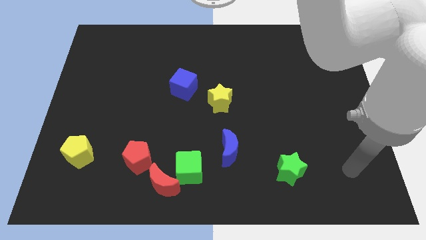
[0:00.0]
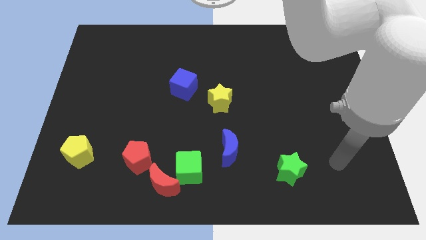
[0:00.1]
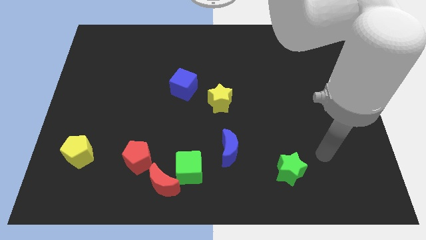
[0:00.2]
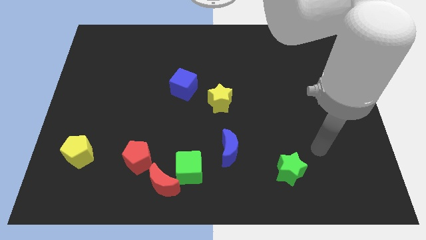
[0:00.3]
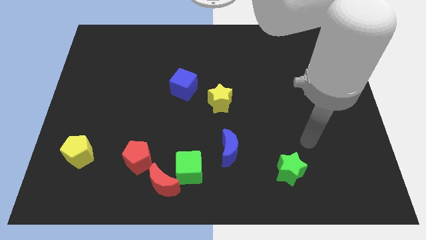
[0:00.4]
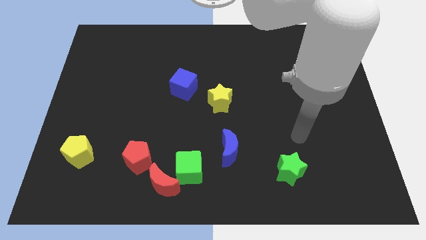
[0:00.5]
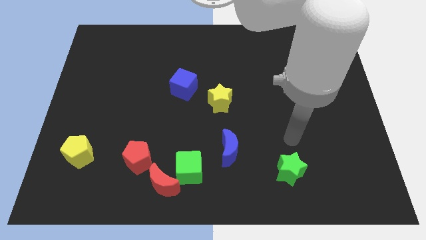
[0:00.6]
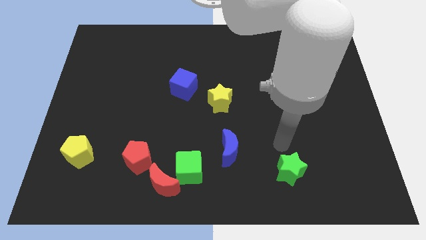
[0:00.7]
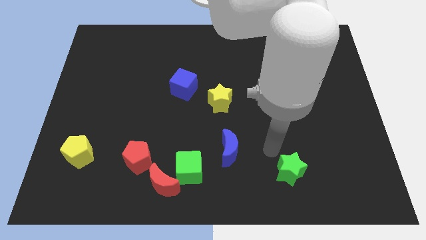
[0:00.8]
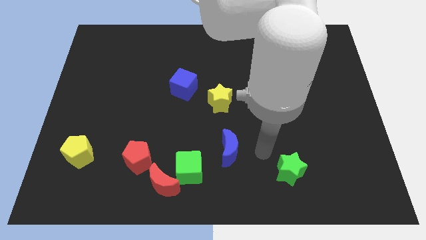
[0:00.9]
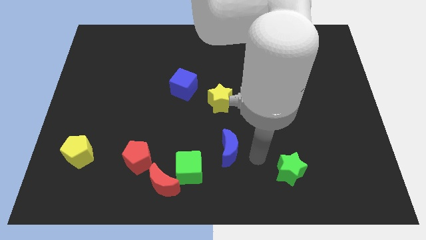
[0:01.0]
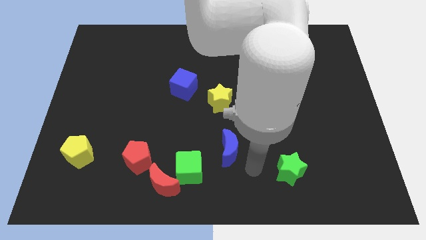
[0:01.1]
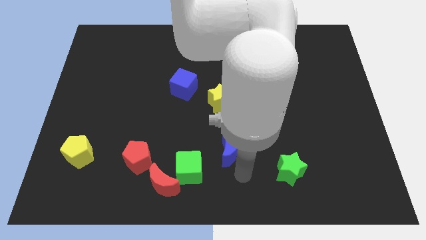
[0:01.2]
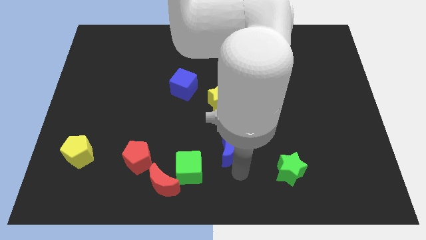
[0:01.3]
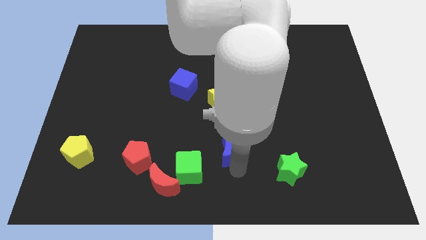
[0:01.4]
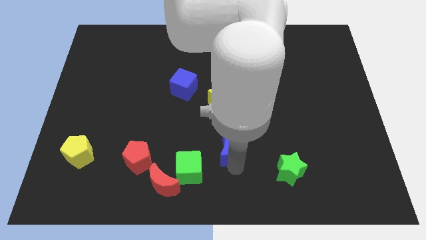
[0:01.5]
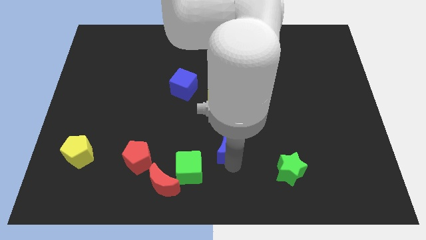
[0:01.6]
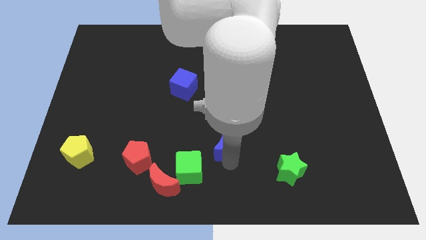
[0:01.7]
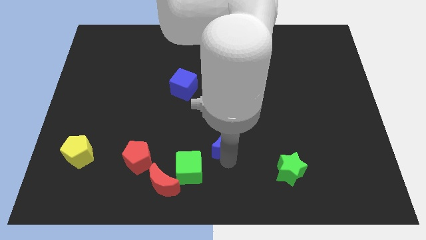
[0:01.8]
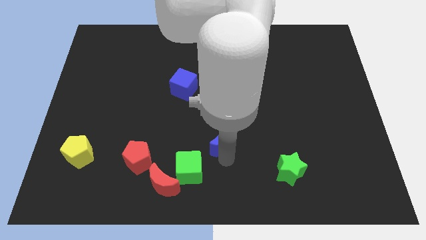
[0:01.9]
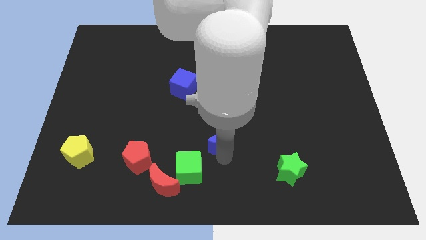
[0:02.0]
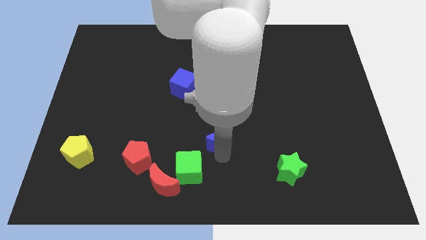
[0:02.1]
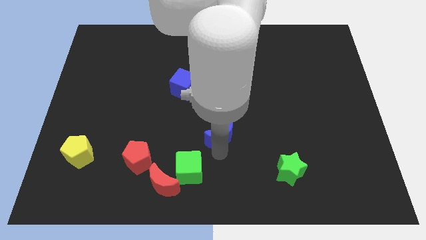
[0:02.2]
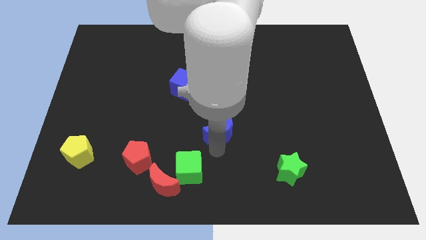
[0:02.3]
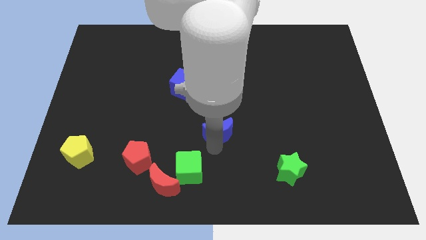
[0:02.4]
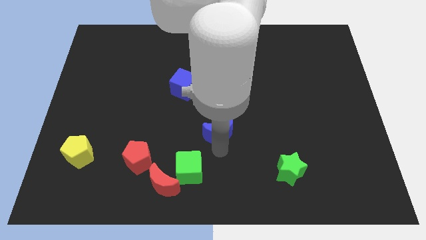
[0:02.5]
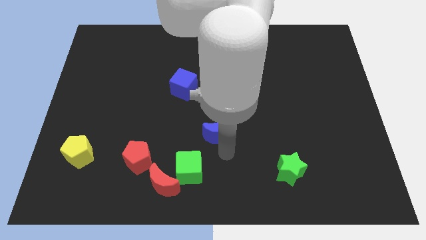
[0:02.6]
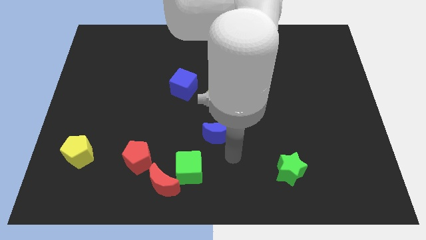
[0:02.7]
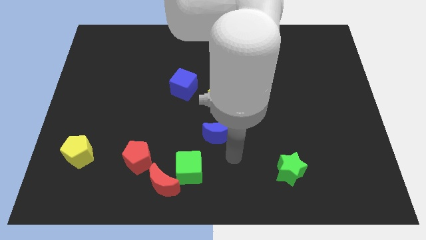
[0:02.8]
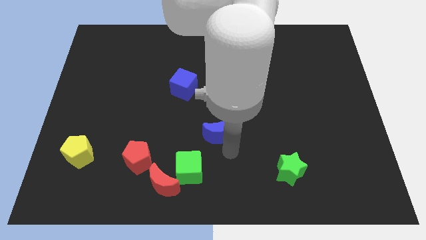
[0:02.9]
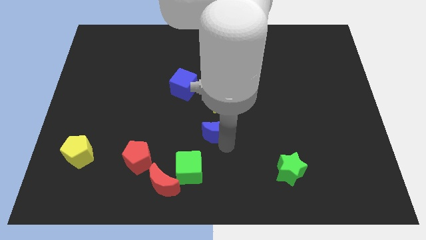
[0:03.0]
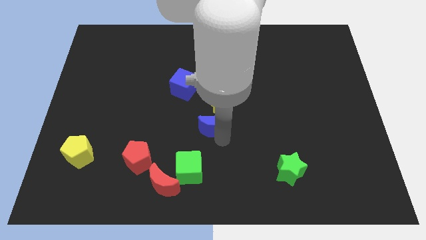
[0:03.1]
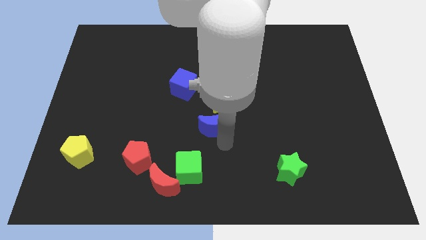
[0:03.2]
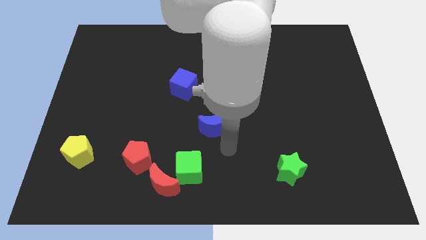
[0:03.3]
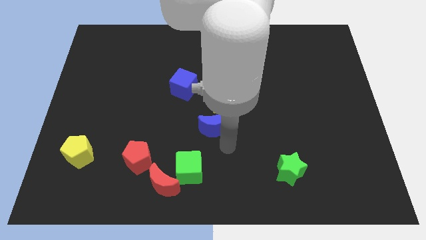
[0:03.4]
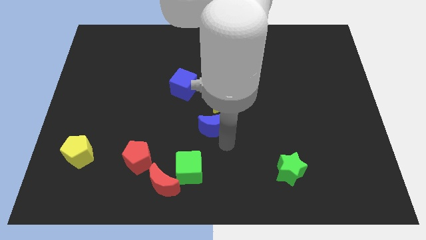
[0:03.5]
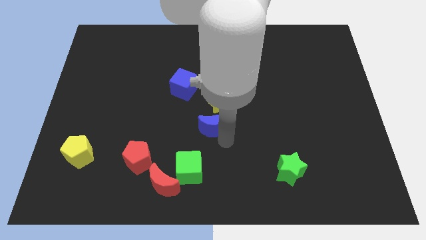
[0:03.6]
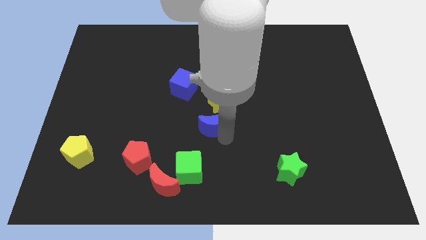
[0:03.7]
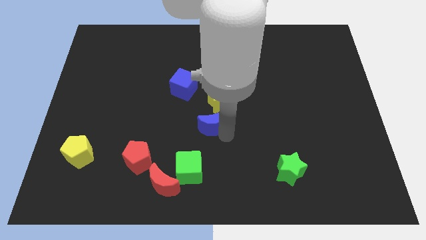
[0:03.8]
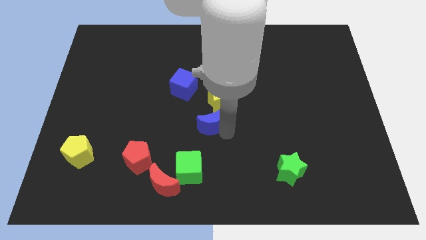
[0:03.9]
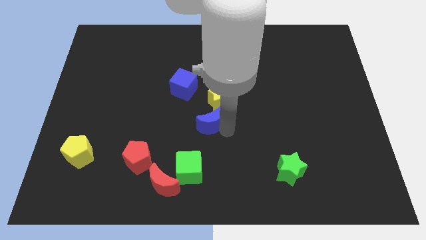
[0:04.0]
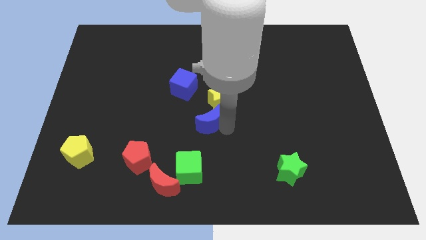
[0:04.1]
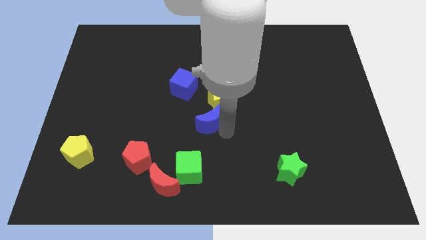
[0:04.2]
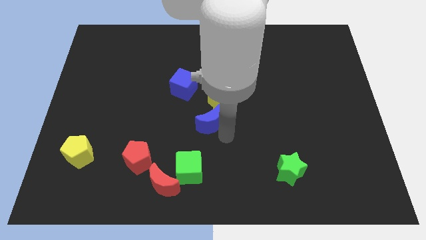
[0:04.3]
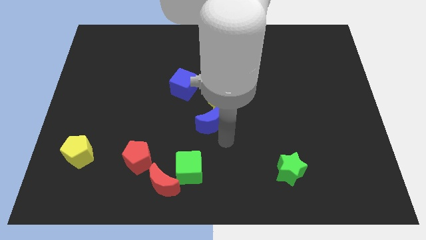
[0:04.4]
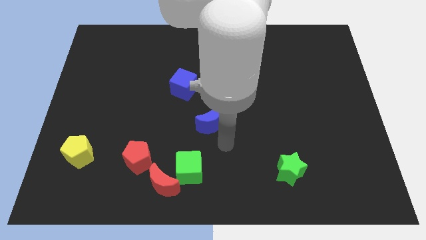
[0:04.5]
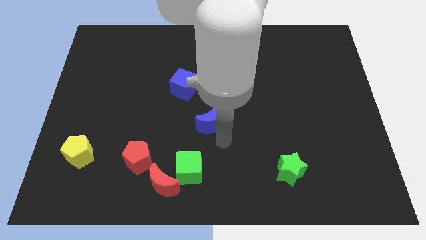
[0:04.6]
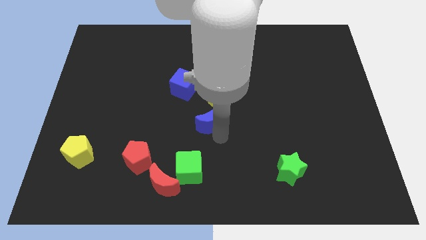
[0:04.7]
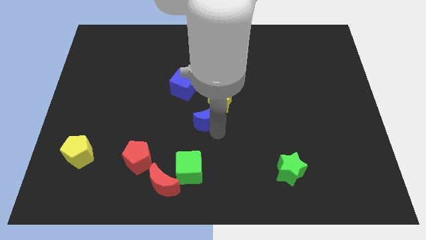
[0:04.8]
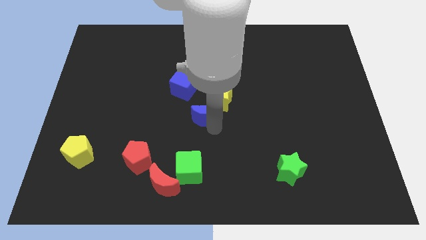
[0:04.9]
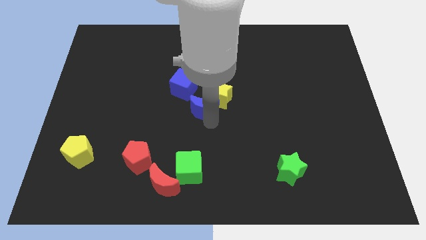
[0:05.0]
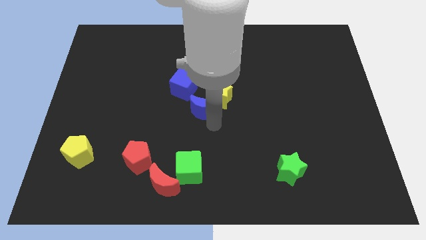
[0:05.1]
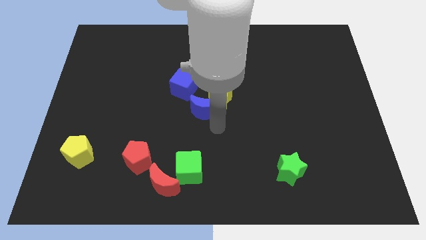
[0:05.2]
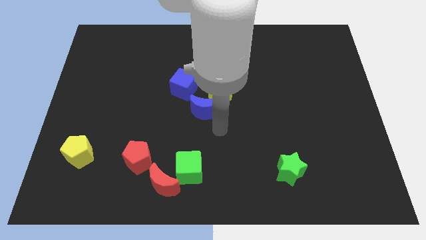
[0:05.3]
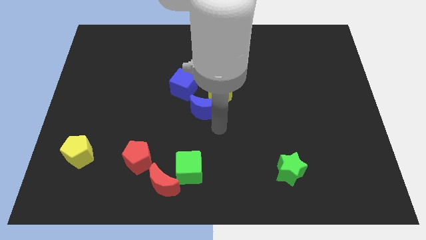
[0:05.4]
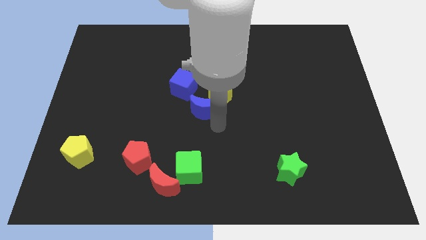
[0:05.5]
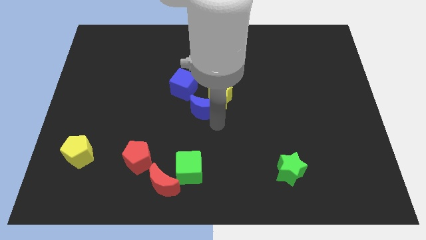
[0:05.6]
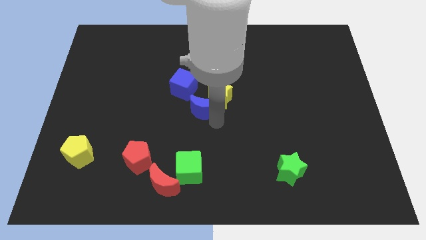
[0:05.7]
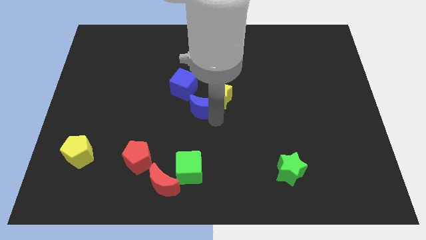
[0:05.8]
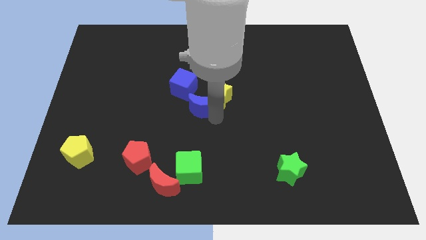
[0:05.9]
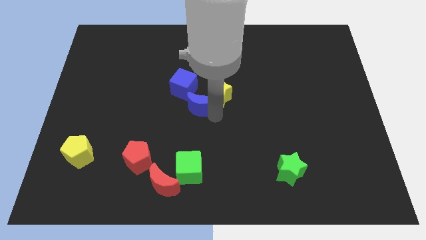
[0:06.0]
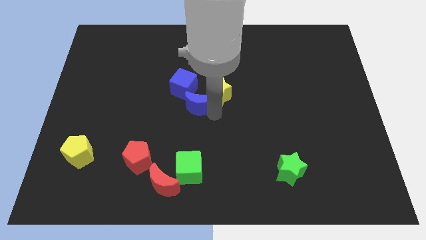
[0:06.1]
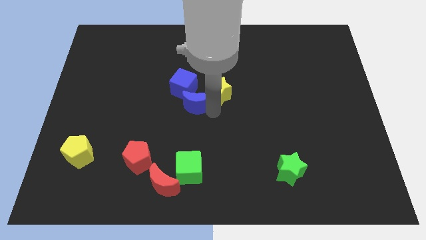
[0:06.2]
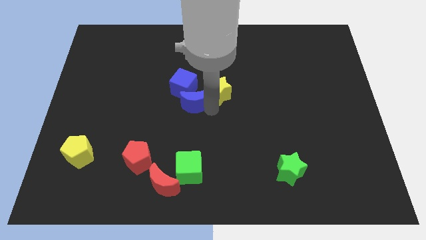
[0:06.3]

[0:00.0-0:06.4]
move the blue moon next to the blue cube

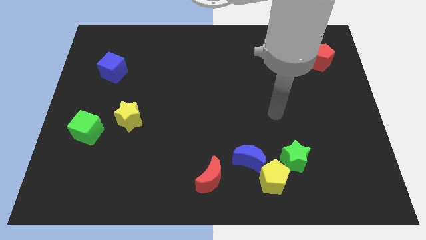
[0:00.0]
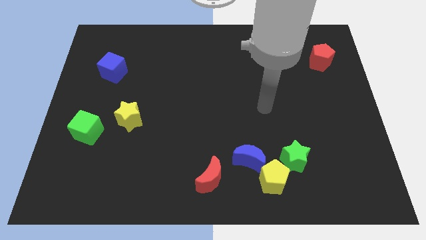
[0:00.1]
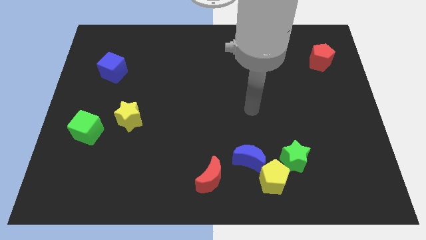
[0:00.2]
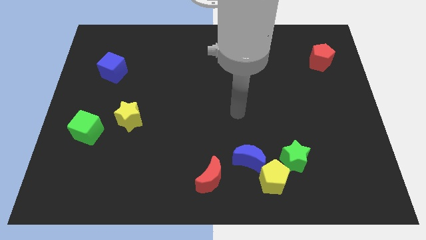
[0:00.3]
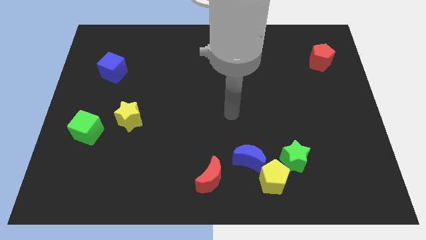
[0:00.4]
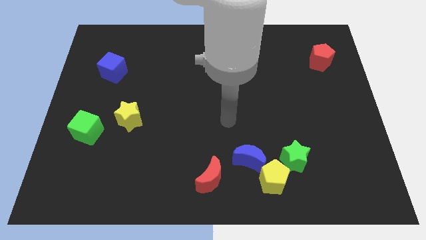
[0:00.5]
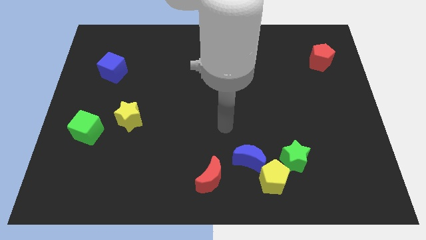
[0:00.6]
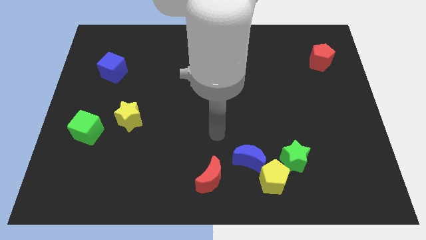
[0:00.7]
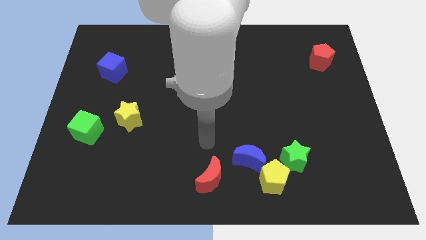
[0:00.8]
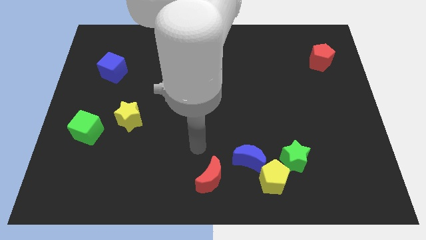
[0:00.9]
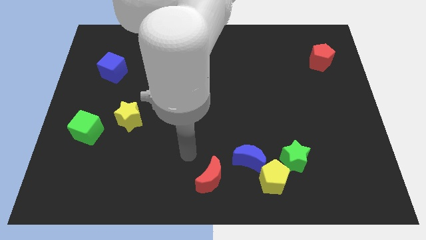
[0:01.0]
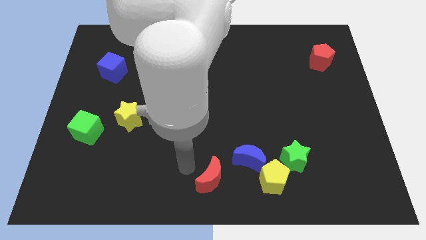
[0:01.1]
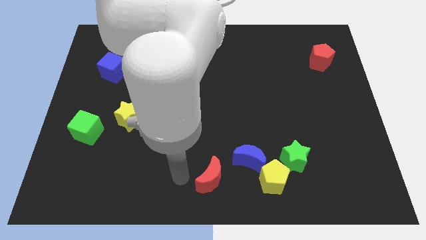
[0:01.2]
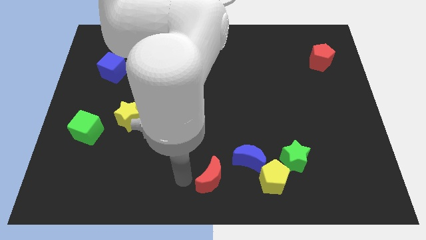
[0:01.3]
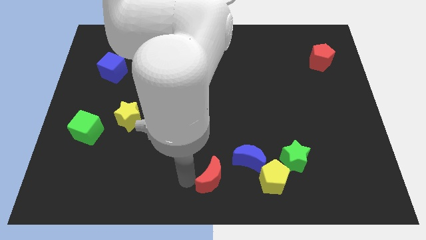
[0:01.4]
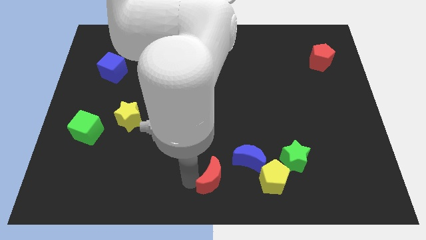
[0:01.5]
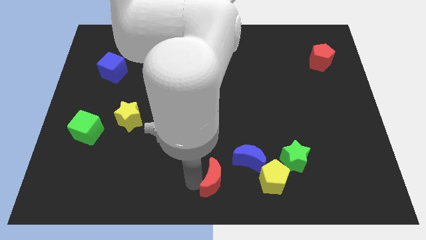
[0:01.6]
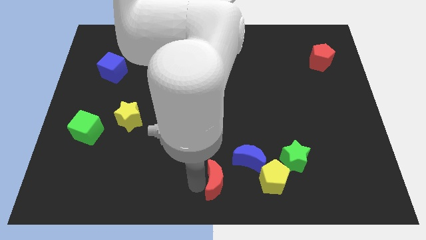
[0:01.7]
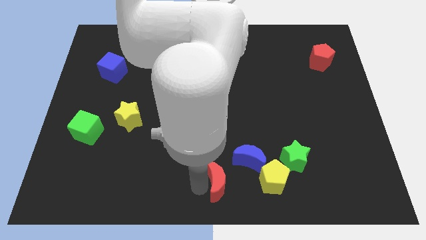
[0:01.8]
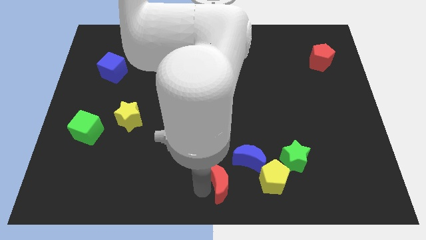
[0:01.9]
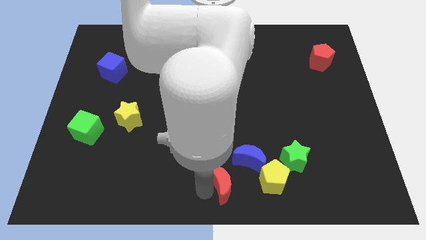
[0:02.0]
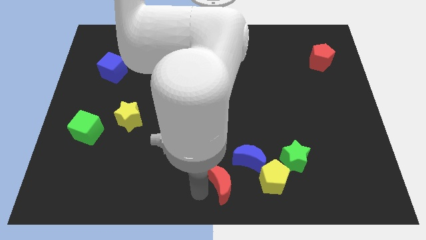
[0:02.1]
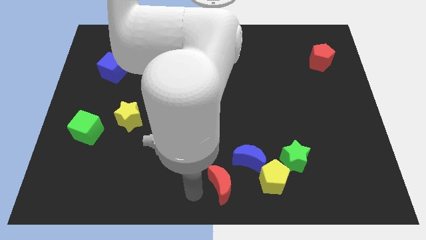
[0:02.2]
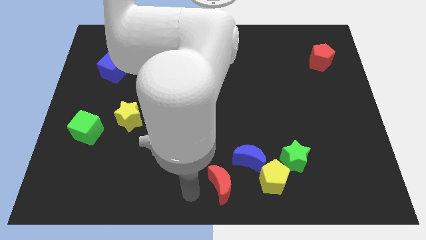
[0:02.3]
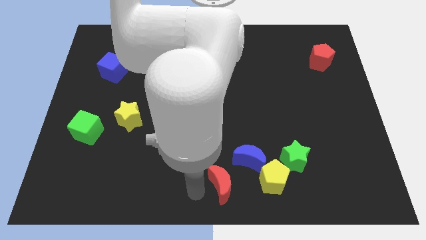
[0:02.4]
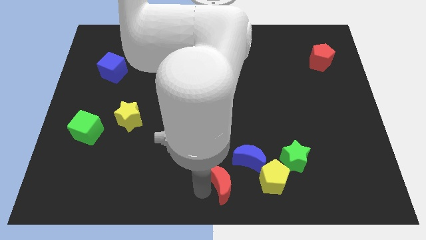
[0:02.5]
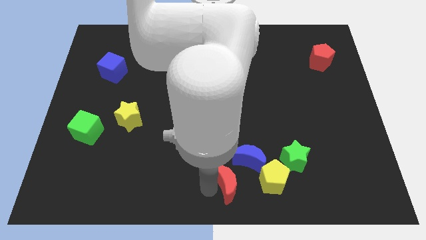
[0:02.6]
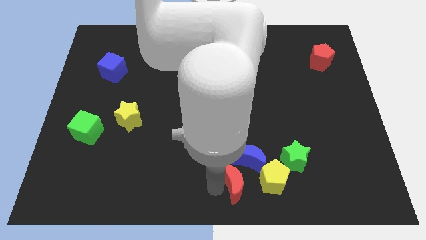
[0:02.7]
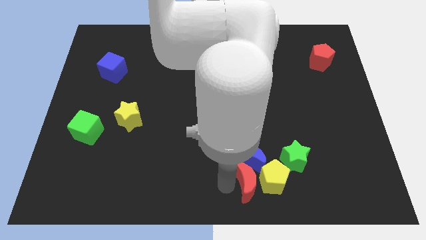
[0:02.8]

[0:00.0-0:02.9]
move the red moon next to the yellow pentagon
